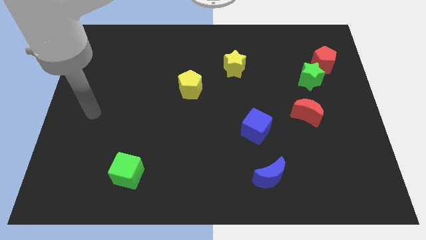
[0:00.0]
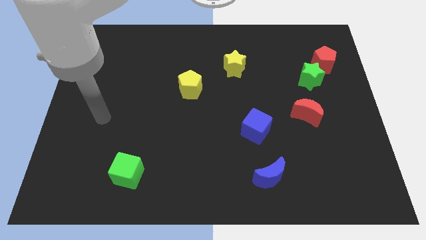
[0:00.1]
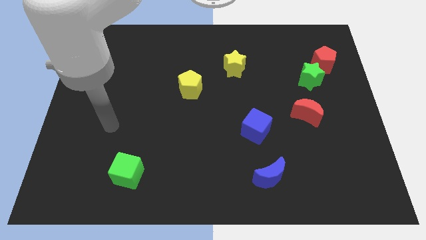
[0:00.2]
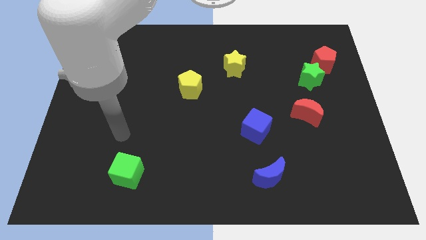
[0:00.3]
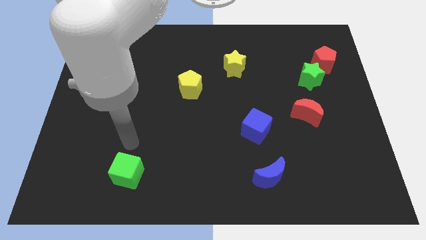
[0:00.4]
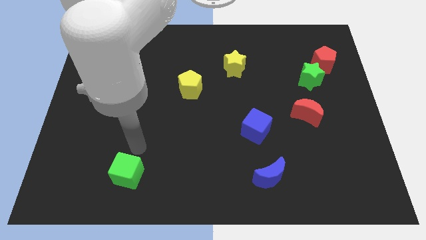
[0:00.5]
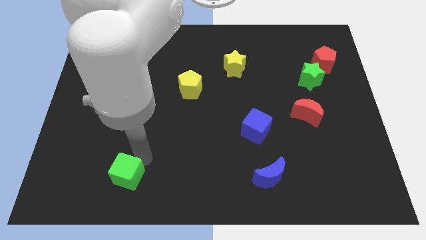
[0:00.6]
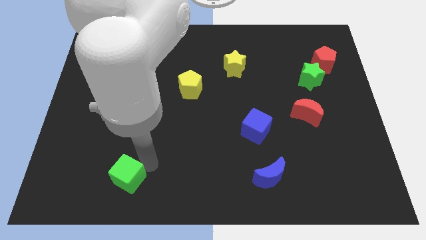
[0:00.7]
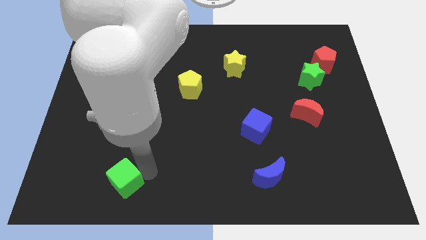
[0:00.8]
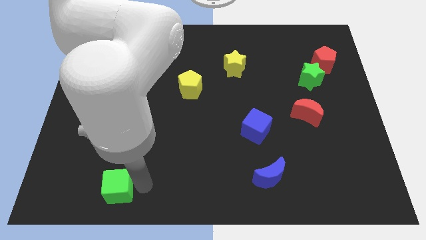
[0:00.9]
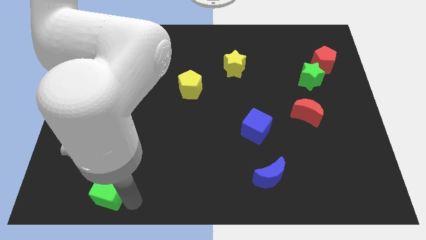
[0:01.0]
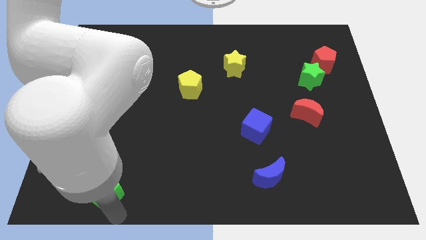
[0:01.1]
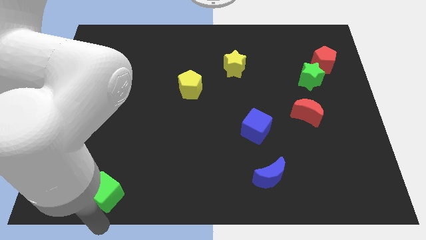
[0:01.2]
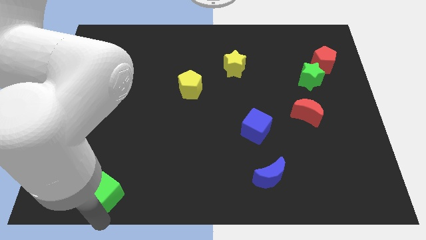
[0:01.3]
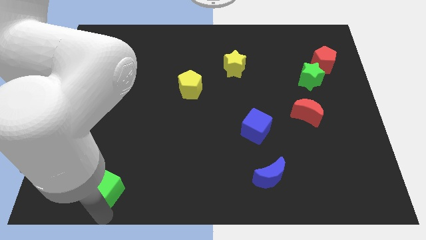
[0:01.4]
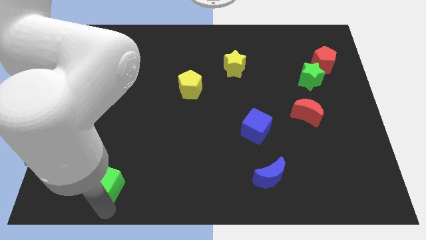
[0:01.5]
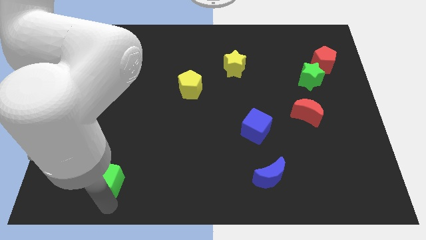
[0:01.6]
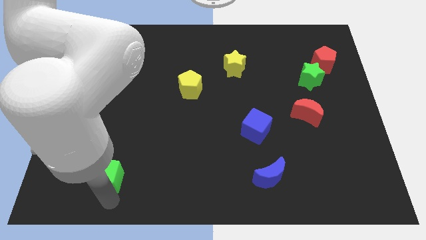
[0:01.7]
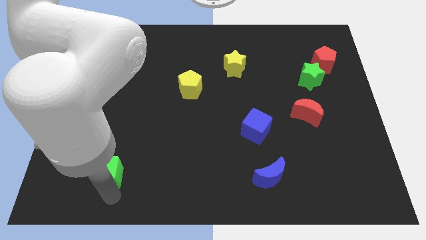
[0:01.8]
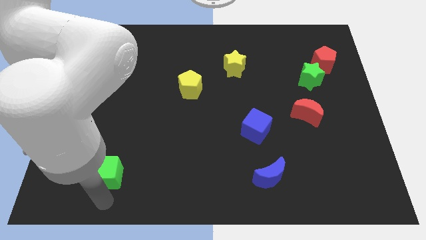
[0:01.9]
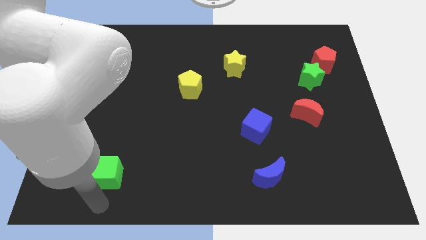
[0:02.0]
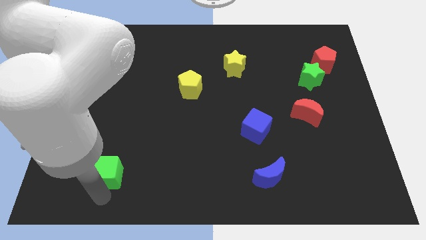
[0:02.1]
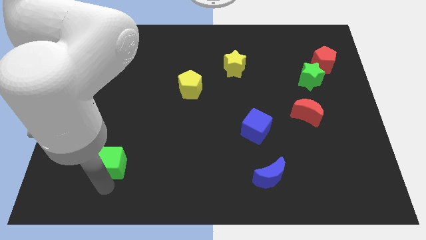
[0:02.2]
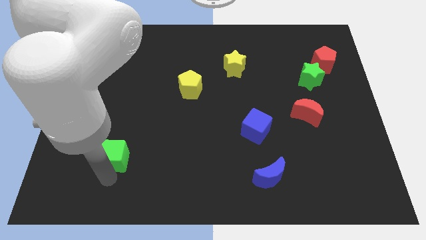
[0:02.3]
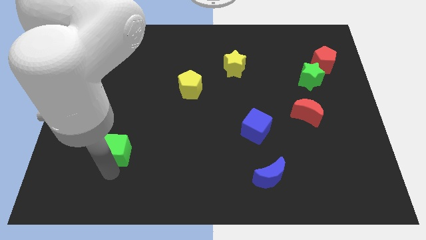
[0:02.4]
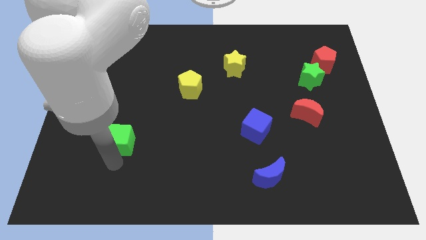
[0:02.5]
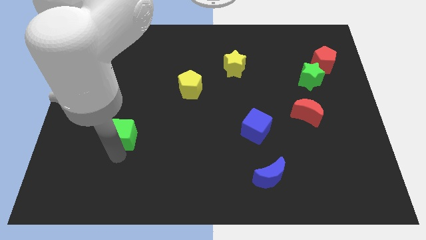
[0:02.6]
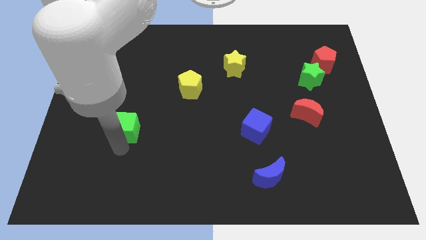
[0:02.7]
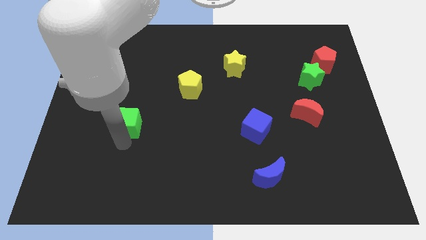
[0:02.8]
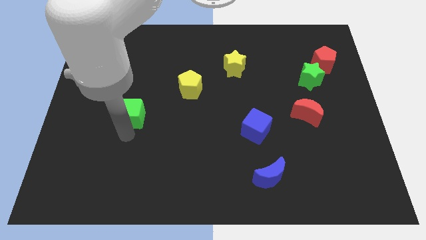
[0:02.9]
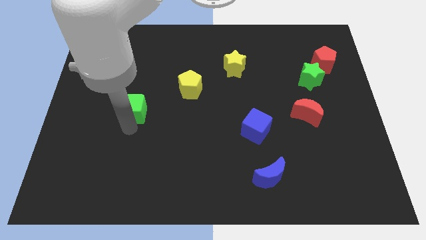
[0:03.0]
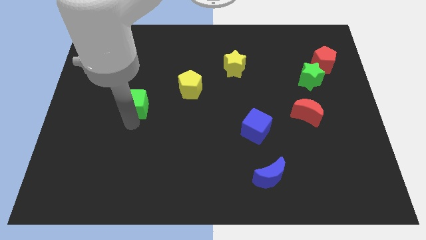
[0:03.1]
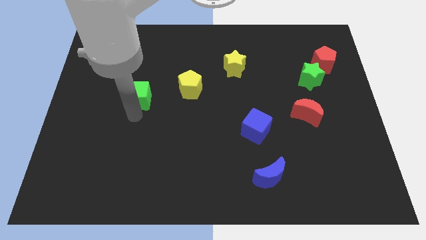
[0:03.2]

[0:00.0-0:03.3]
slide the green cube up

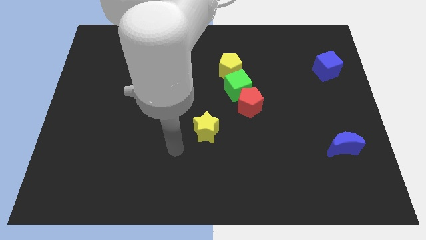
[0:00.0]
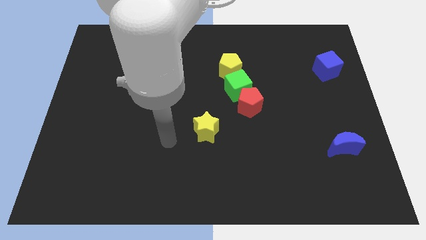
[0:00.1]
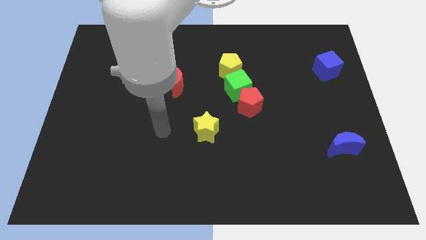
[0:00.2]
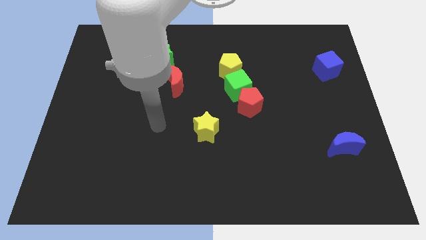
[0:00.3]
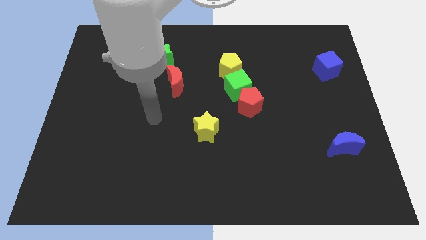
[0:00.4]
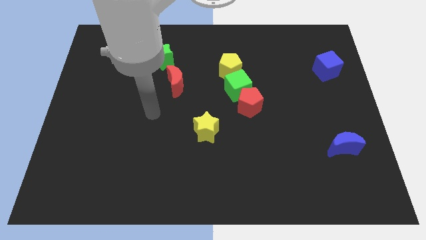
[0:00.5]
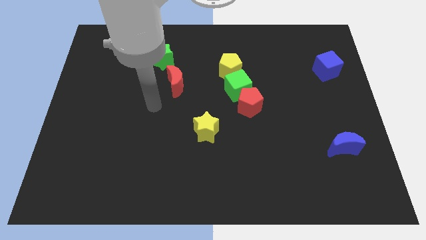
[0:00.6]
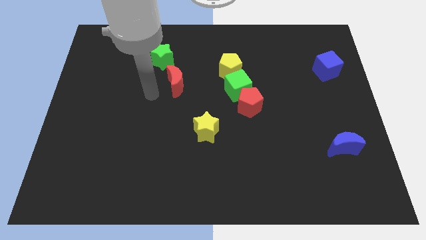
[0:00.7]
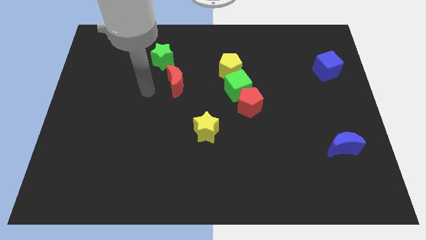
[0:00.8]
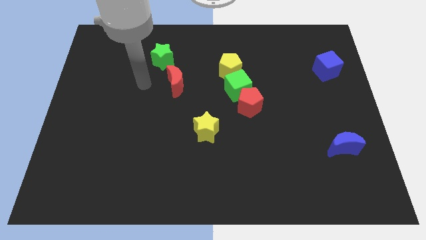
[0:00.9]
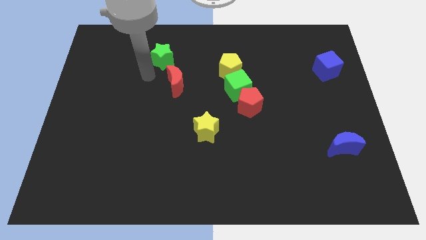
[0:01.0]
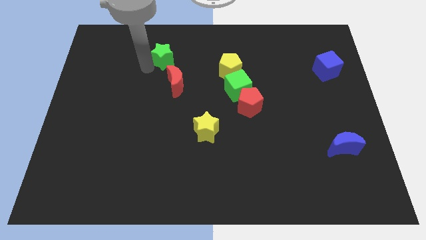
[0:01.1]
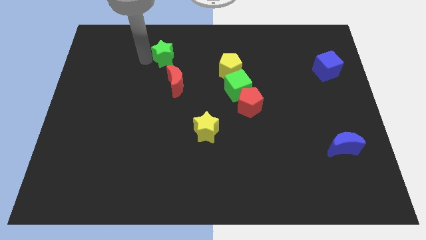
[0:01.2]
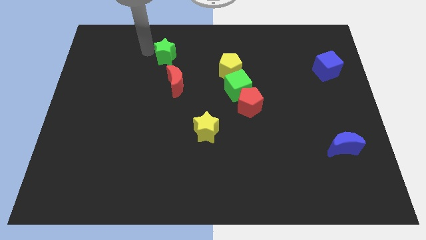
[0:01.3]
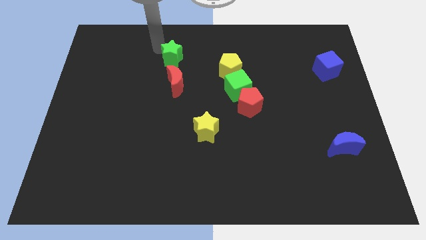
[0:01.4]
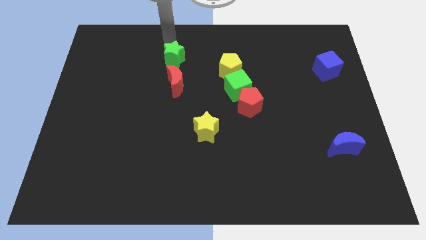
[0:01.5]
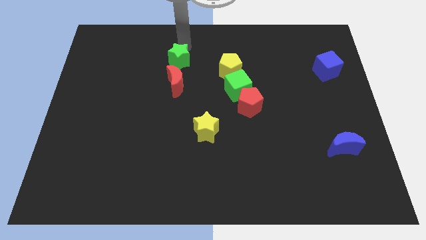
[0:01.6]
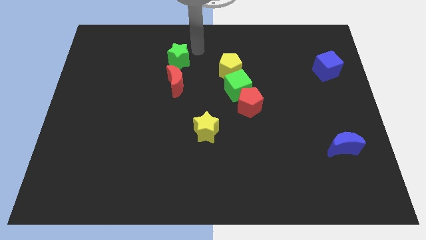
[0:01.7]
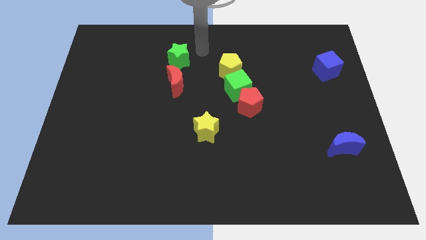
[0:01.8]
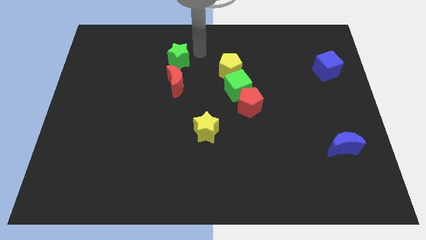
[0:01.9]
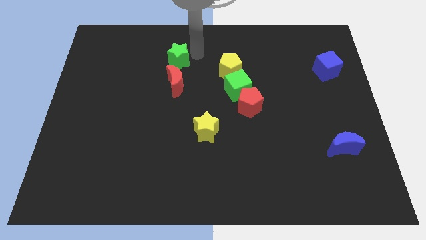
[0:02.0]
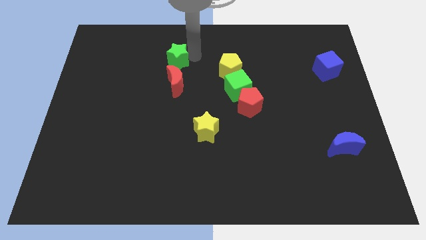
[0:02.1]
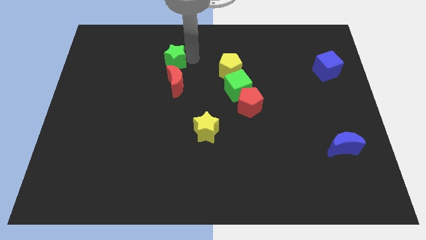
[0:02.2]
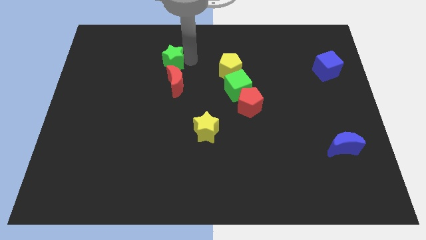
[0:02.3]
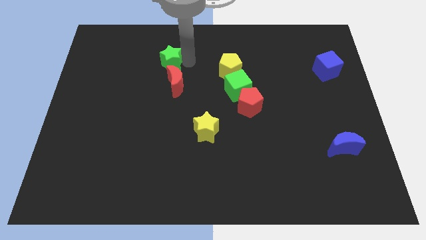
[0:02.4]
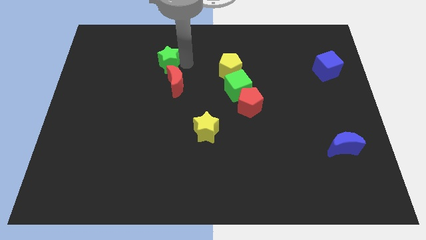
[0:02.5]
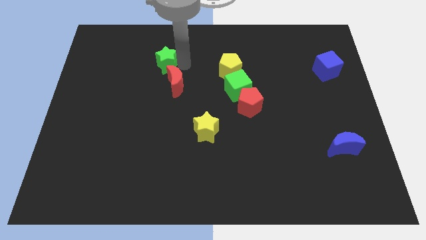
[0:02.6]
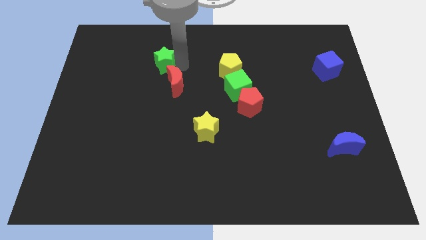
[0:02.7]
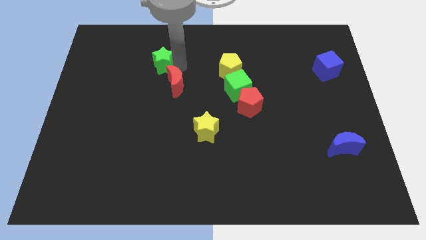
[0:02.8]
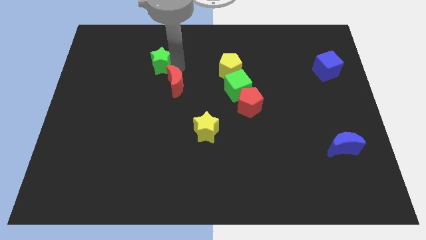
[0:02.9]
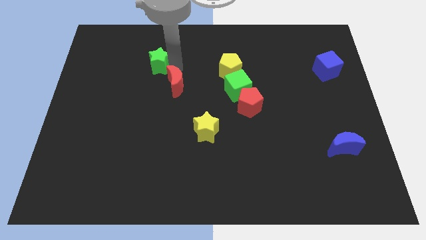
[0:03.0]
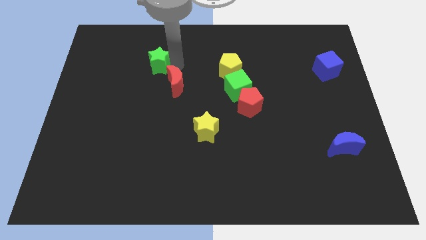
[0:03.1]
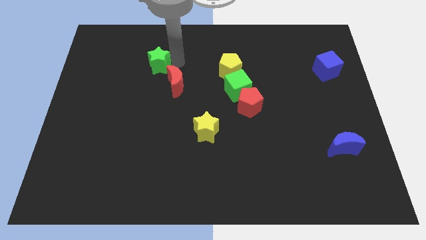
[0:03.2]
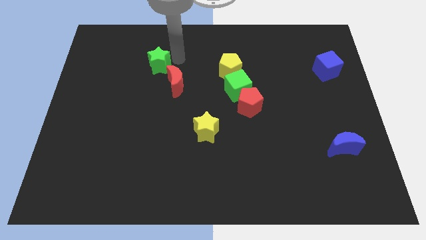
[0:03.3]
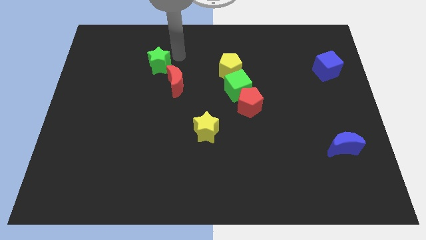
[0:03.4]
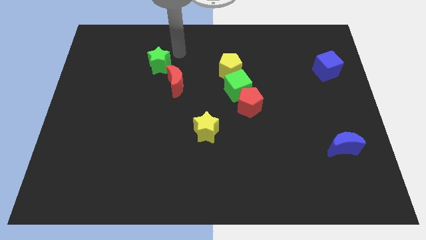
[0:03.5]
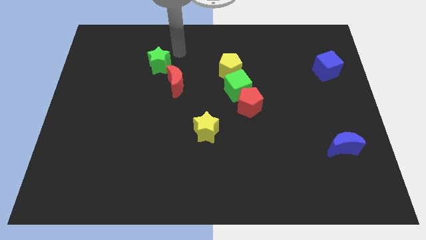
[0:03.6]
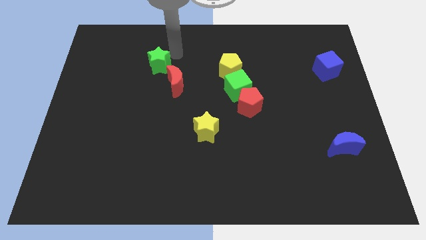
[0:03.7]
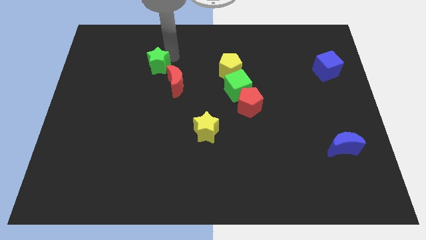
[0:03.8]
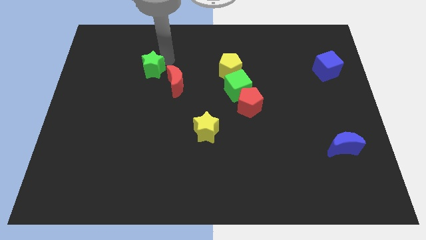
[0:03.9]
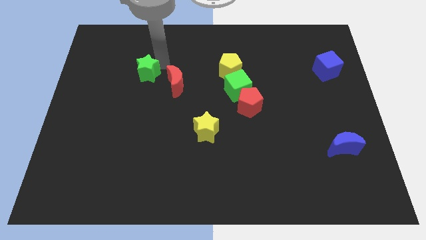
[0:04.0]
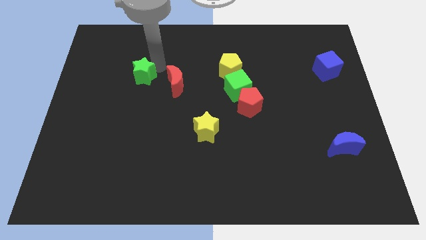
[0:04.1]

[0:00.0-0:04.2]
move the green star a little downwards and then left

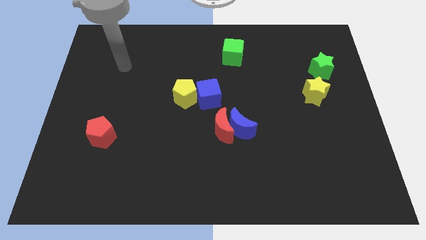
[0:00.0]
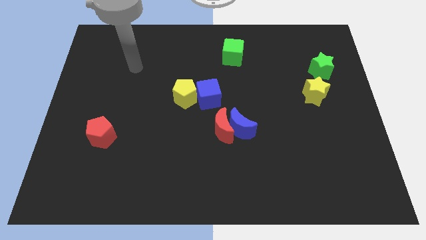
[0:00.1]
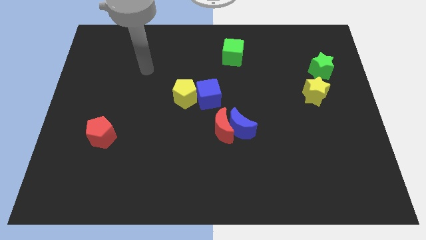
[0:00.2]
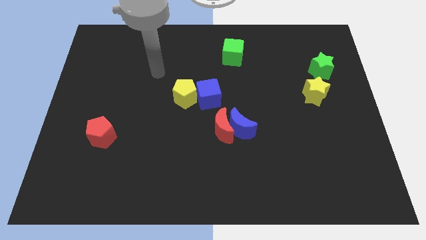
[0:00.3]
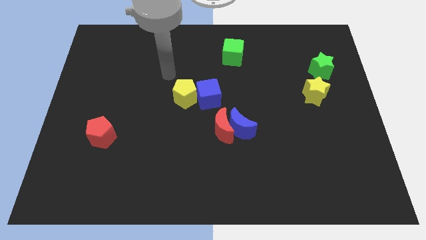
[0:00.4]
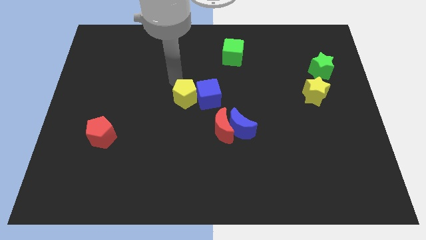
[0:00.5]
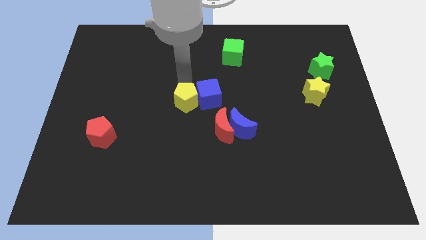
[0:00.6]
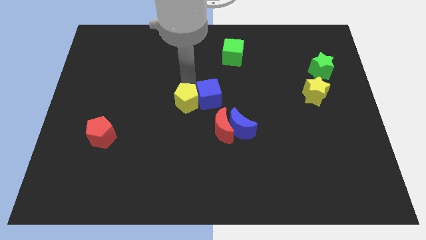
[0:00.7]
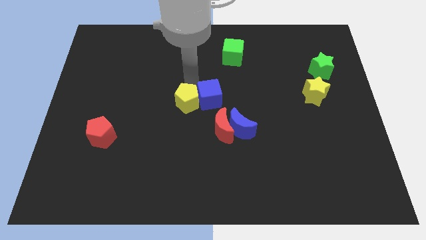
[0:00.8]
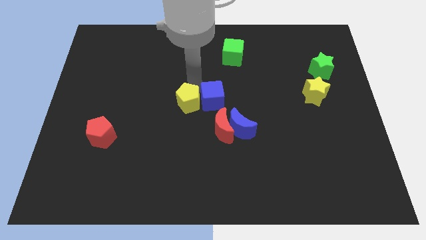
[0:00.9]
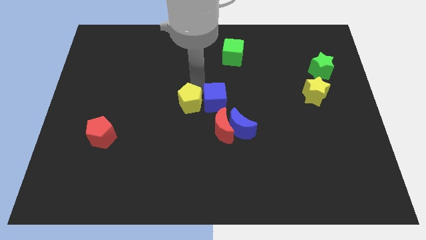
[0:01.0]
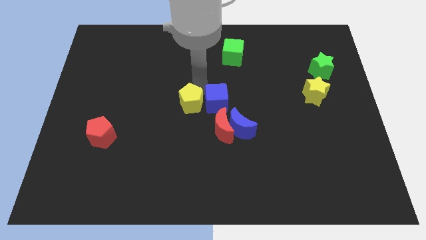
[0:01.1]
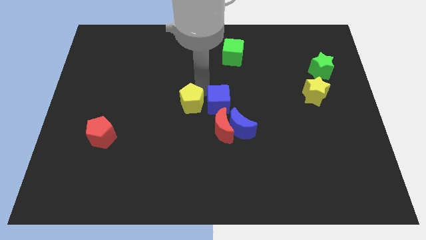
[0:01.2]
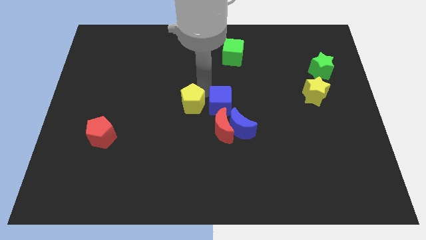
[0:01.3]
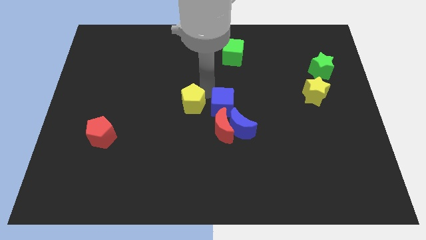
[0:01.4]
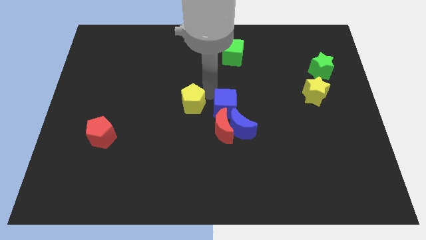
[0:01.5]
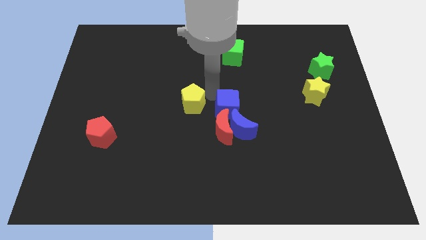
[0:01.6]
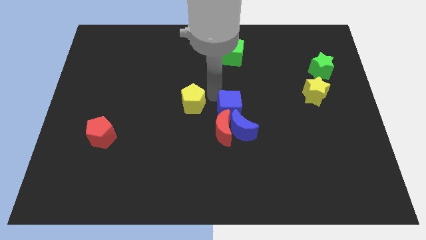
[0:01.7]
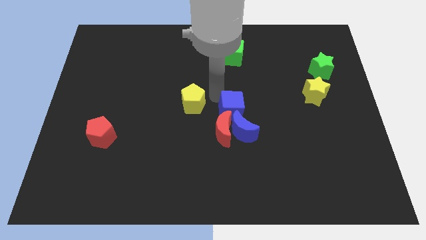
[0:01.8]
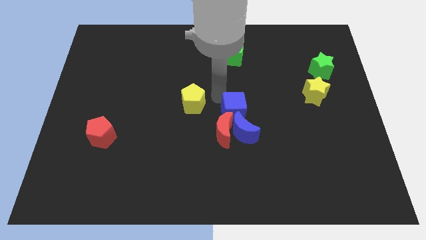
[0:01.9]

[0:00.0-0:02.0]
slightly push the blue cube diagonally downwards and to the right
